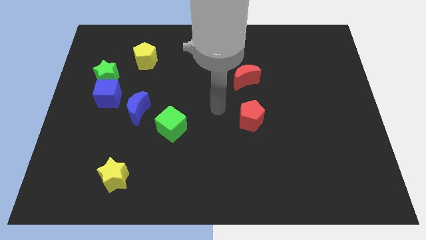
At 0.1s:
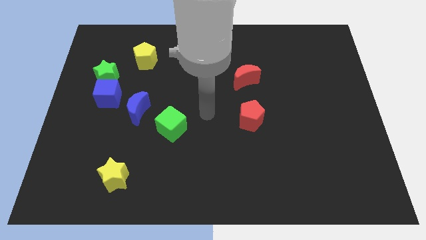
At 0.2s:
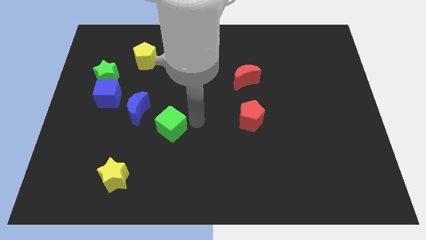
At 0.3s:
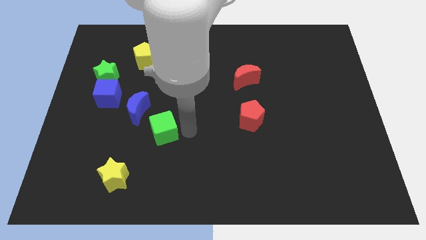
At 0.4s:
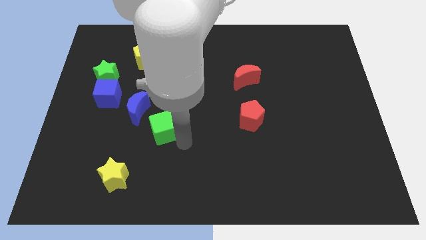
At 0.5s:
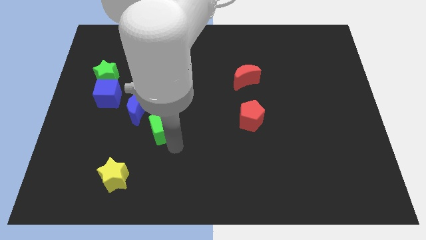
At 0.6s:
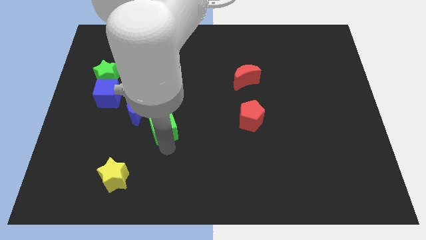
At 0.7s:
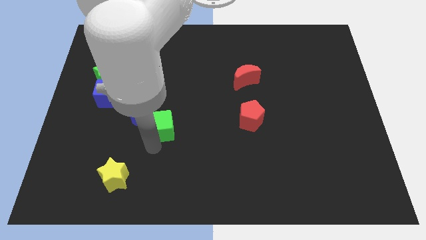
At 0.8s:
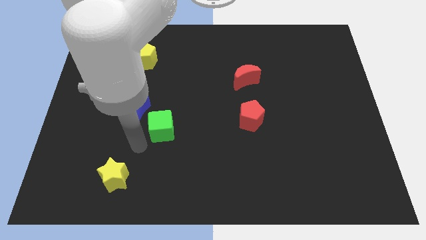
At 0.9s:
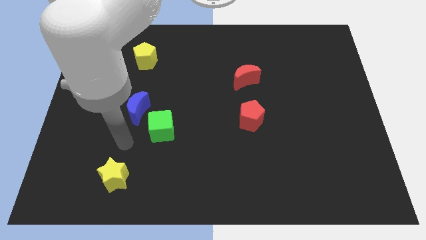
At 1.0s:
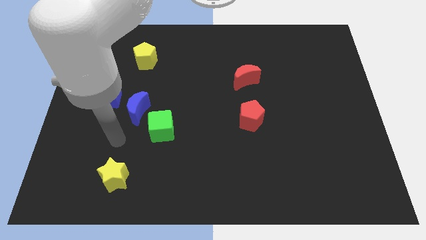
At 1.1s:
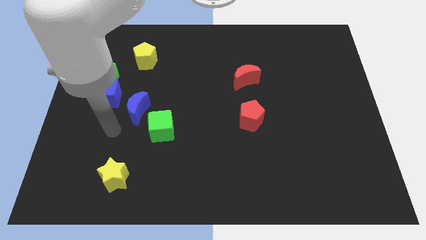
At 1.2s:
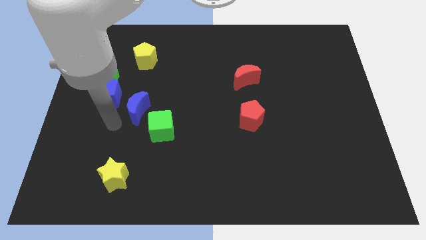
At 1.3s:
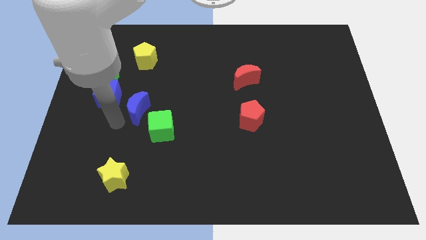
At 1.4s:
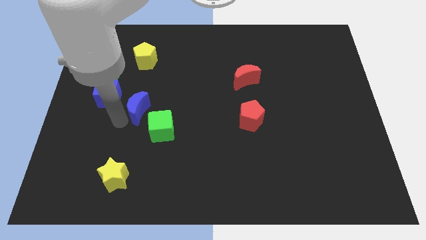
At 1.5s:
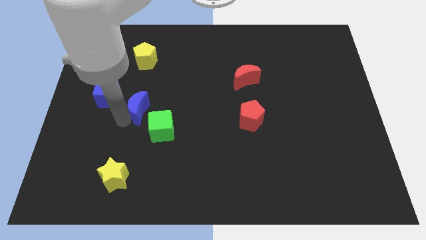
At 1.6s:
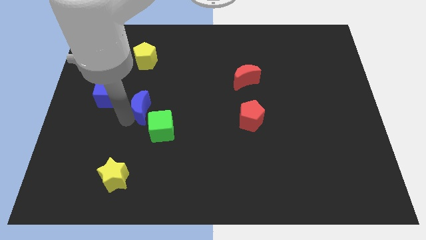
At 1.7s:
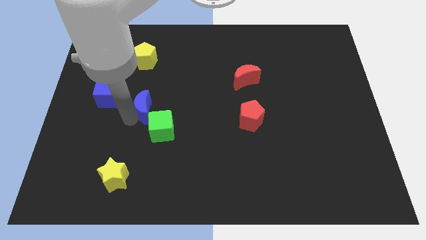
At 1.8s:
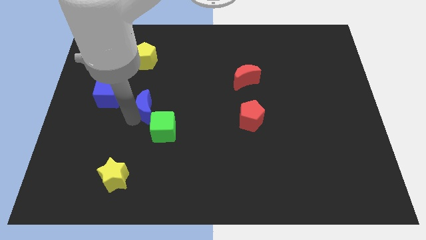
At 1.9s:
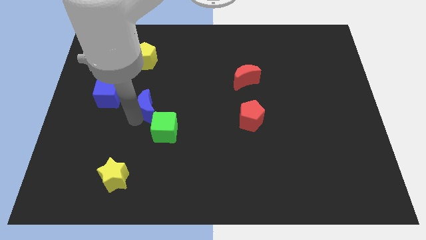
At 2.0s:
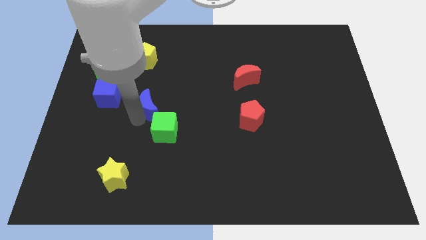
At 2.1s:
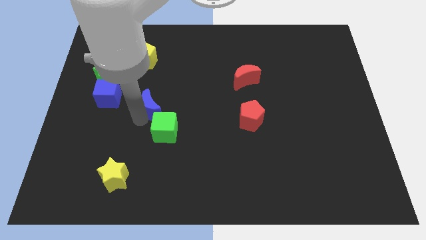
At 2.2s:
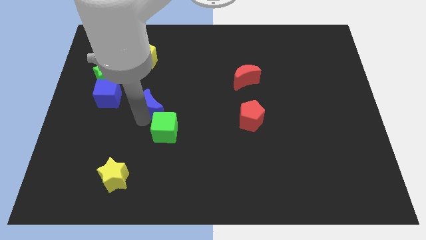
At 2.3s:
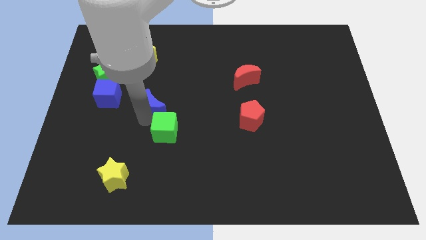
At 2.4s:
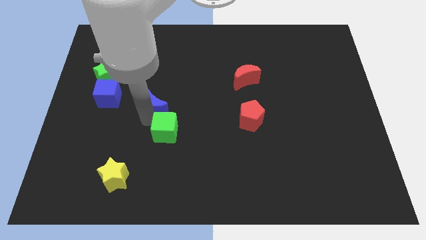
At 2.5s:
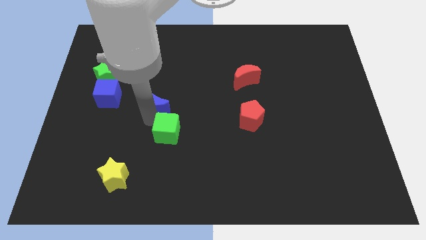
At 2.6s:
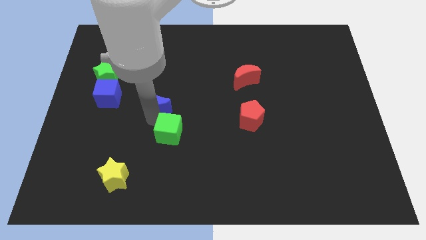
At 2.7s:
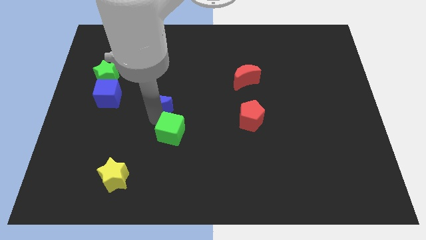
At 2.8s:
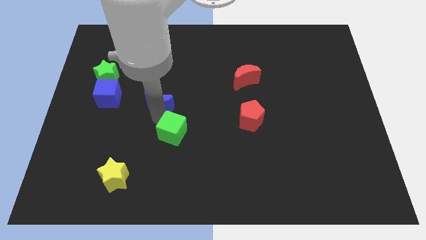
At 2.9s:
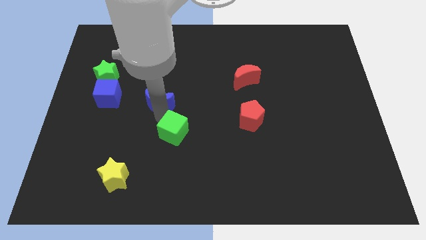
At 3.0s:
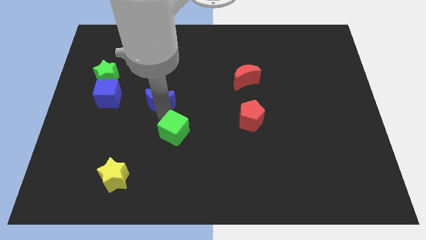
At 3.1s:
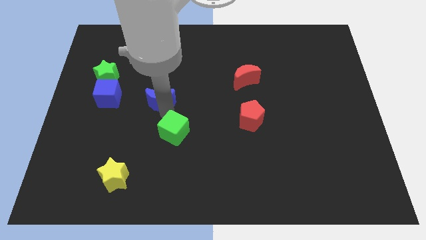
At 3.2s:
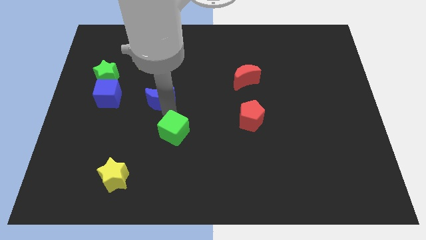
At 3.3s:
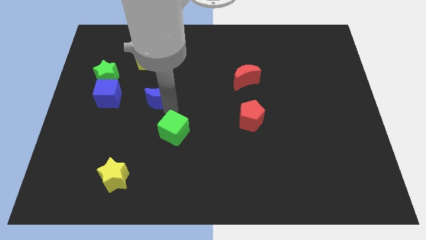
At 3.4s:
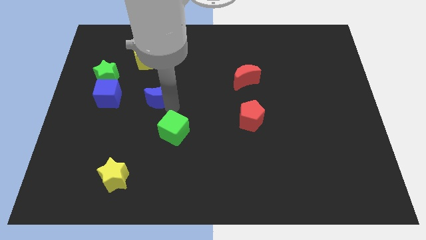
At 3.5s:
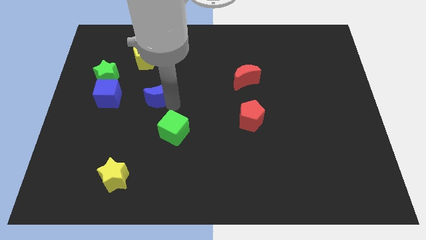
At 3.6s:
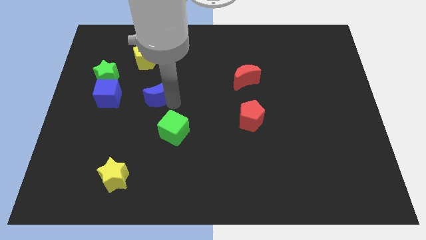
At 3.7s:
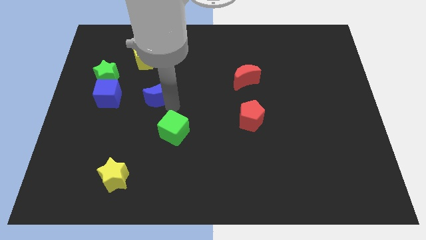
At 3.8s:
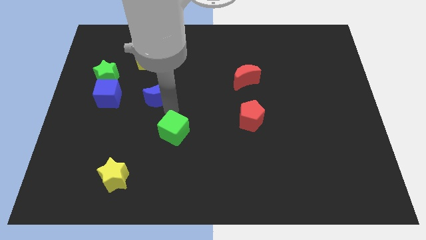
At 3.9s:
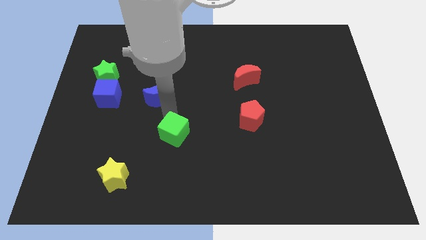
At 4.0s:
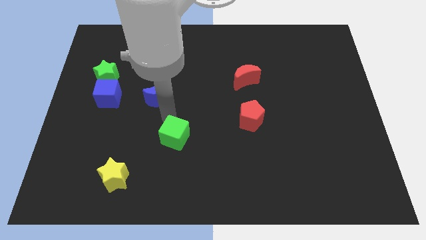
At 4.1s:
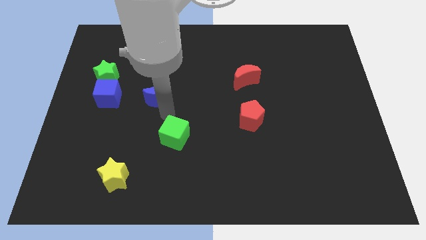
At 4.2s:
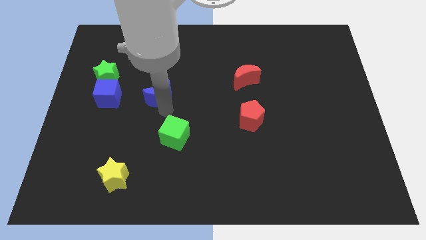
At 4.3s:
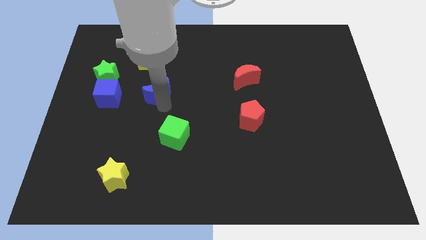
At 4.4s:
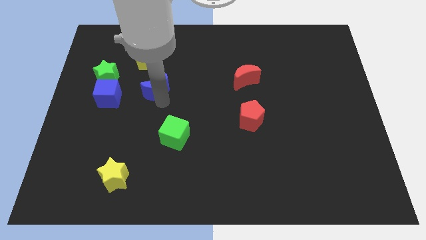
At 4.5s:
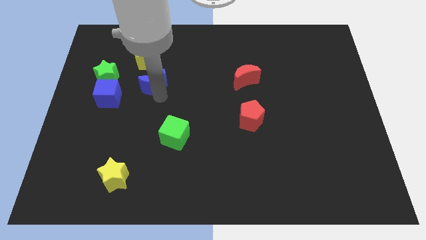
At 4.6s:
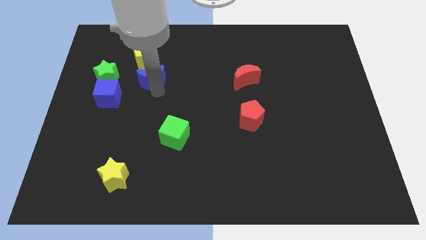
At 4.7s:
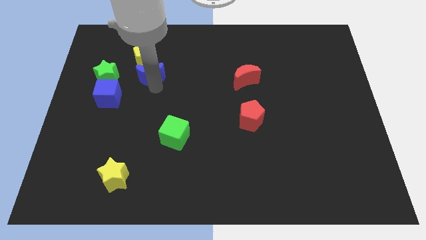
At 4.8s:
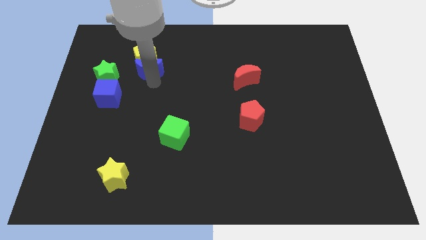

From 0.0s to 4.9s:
slide the blue moon next to the yellow pentagon

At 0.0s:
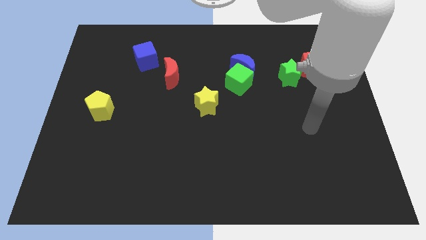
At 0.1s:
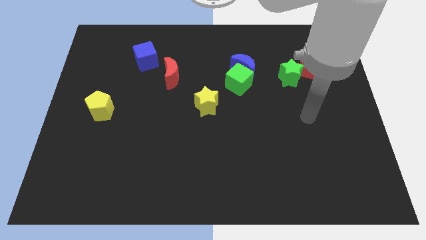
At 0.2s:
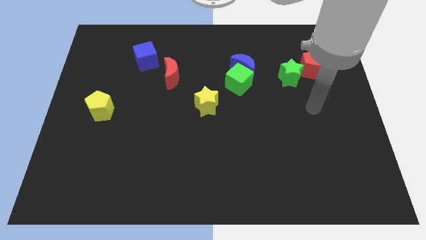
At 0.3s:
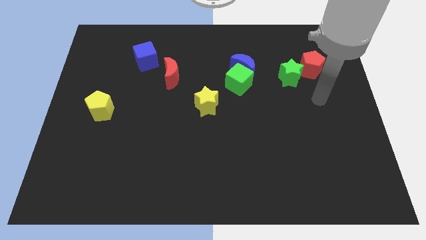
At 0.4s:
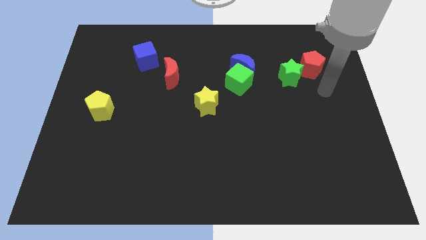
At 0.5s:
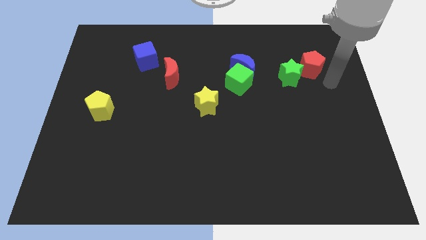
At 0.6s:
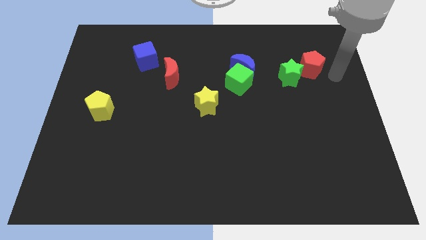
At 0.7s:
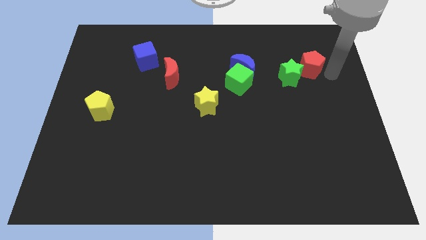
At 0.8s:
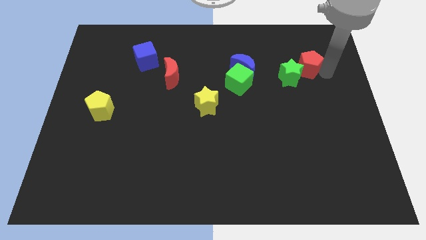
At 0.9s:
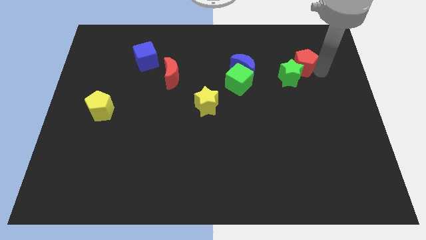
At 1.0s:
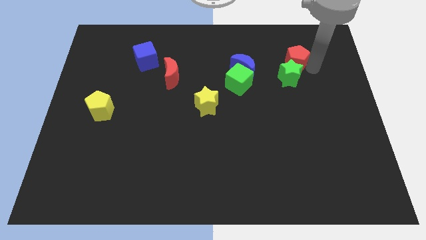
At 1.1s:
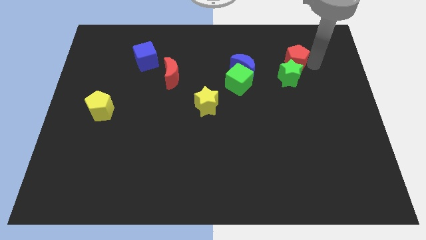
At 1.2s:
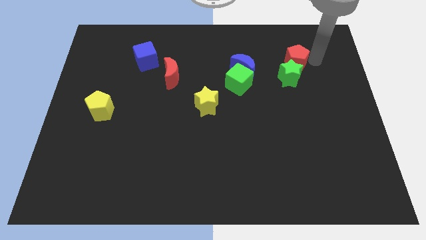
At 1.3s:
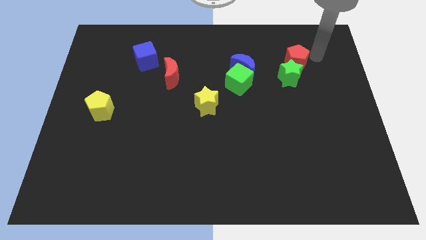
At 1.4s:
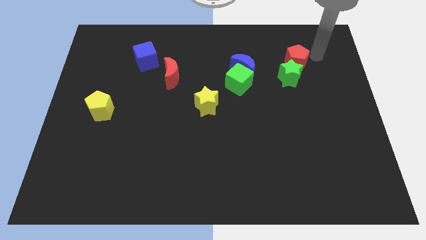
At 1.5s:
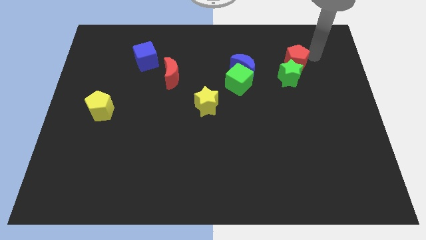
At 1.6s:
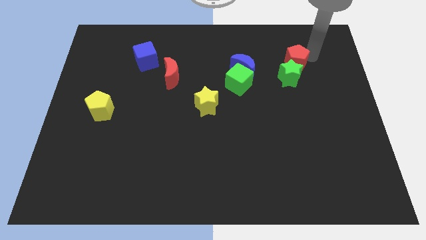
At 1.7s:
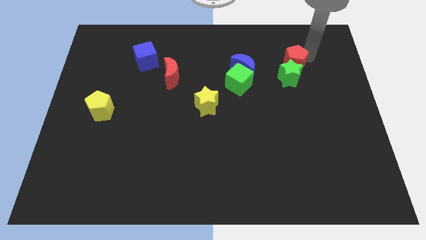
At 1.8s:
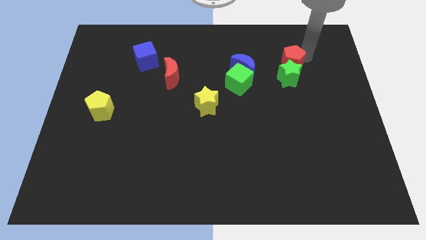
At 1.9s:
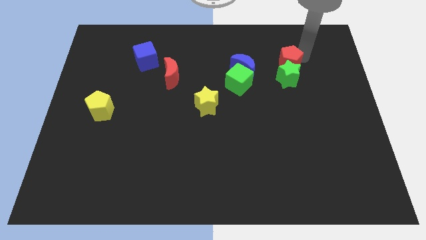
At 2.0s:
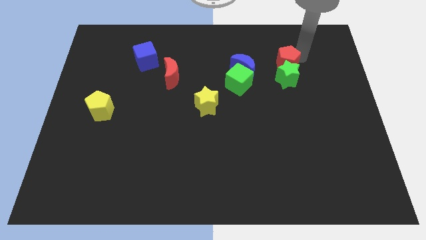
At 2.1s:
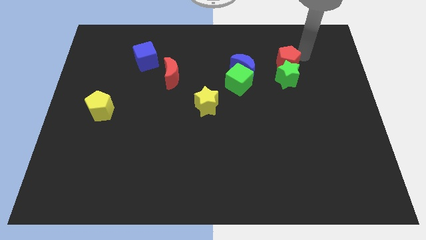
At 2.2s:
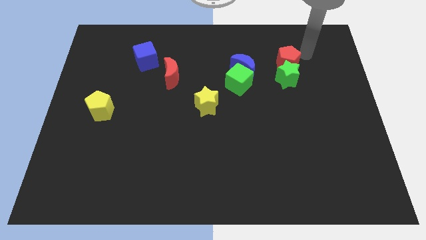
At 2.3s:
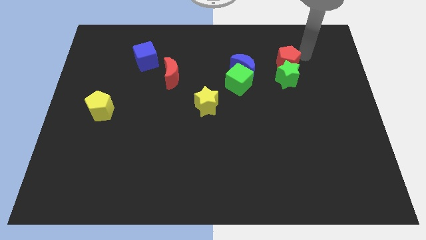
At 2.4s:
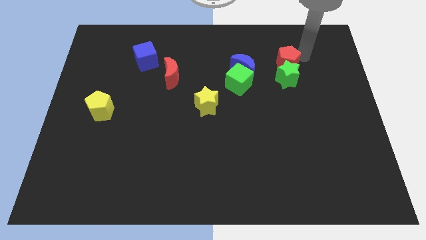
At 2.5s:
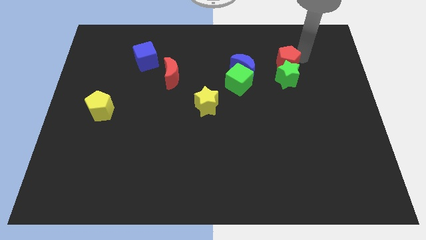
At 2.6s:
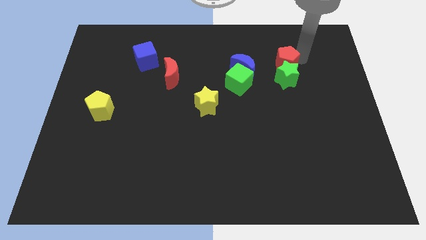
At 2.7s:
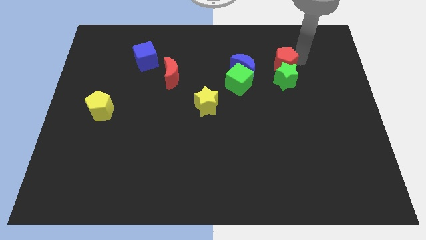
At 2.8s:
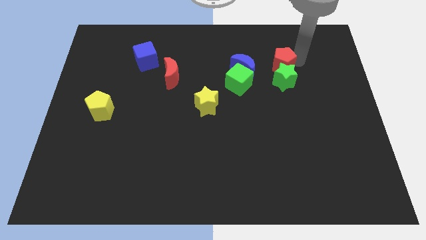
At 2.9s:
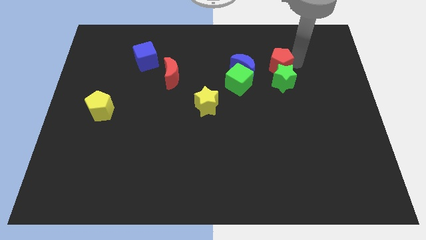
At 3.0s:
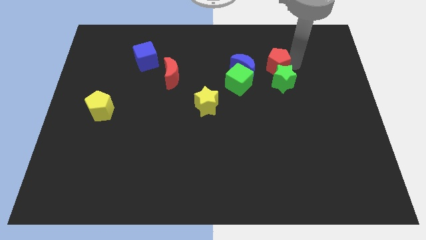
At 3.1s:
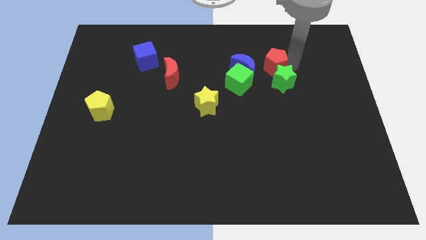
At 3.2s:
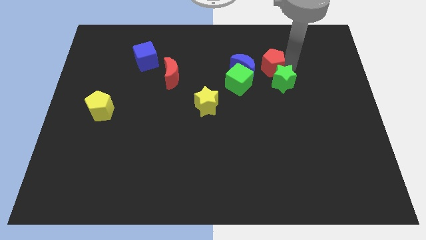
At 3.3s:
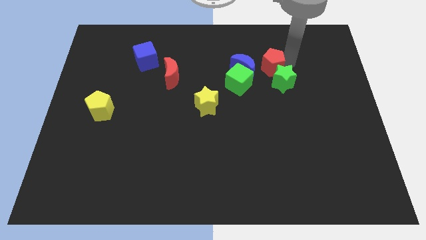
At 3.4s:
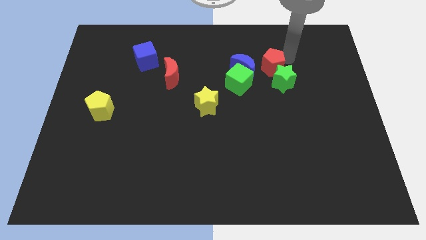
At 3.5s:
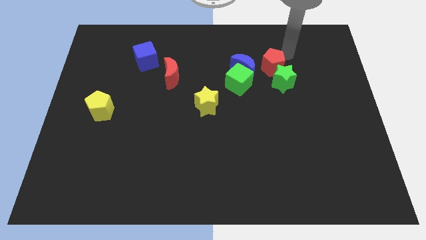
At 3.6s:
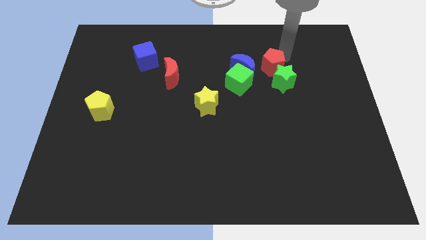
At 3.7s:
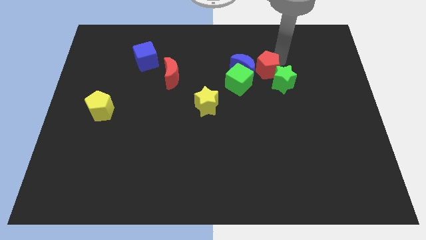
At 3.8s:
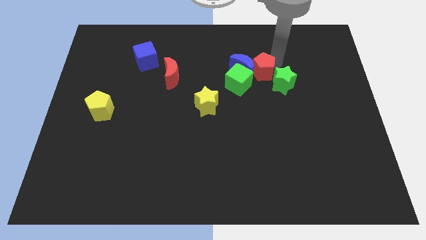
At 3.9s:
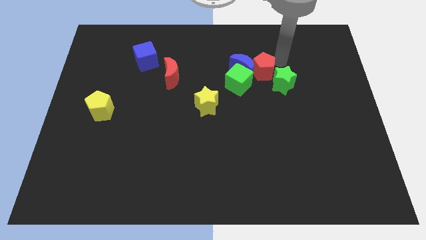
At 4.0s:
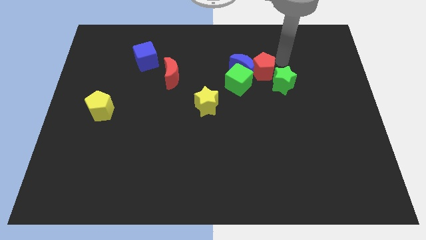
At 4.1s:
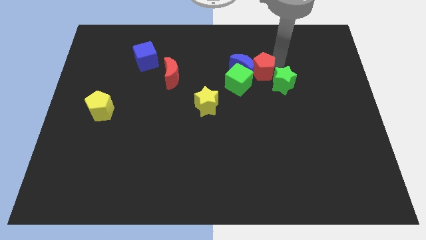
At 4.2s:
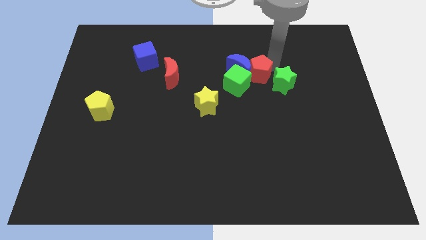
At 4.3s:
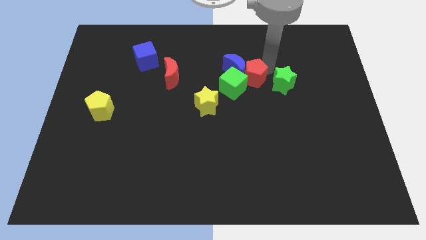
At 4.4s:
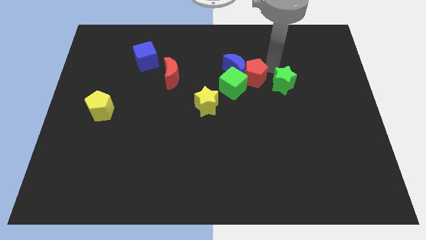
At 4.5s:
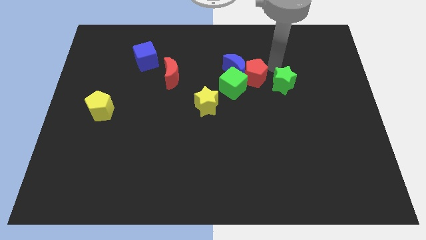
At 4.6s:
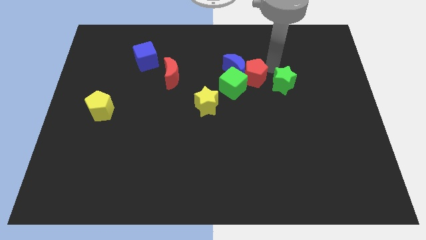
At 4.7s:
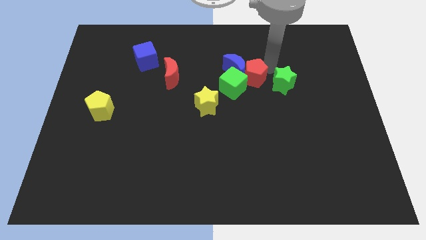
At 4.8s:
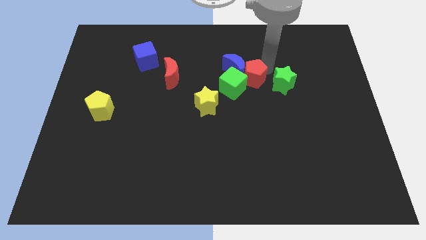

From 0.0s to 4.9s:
move the red pentagon close to the green cube
